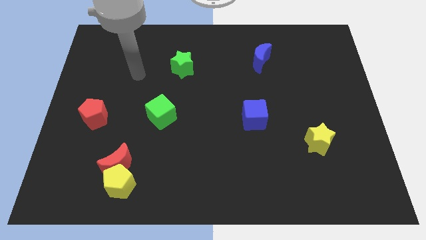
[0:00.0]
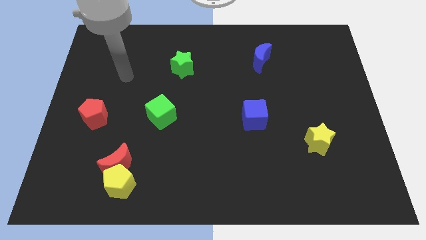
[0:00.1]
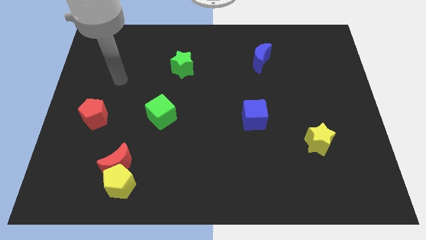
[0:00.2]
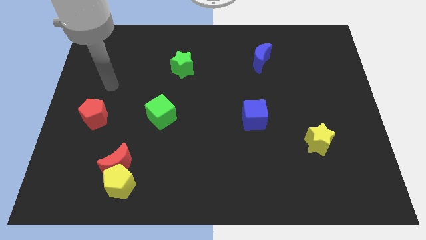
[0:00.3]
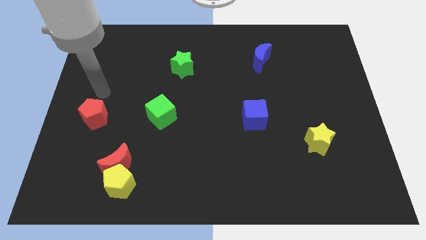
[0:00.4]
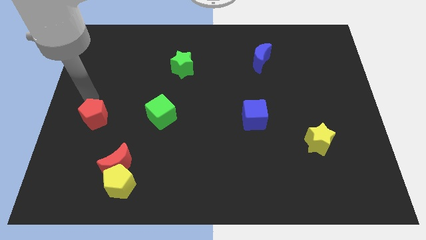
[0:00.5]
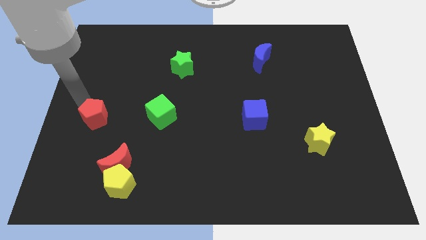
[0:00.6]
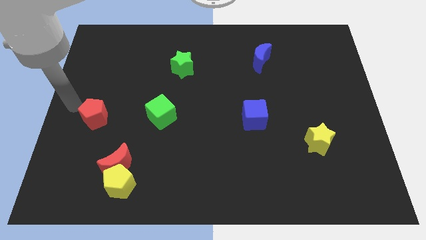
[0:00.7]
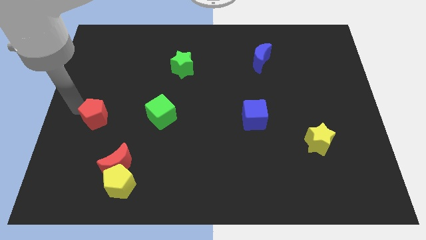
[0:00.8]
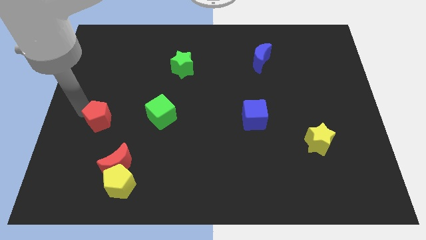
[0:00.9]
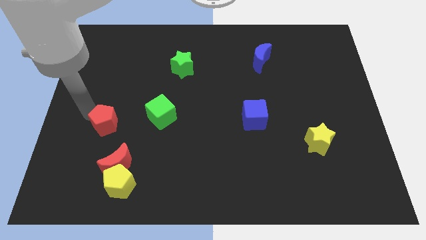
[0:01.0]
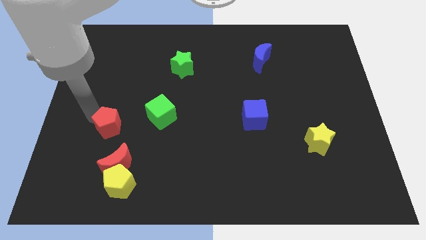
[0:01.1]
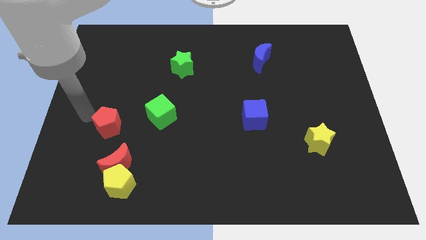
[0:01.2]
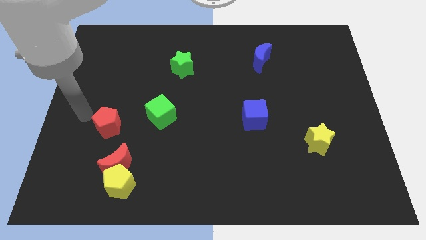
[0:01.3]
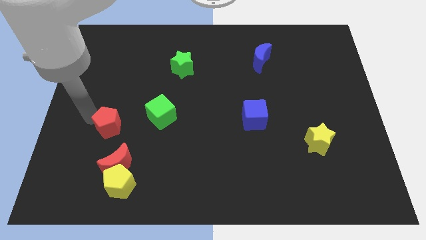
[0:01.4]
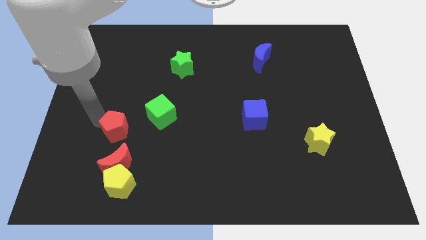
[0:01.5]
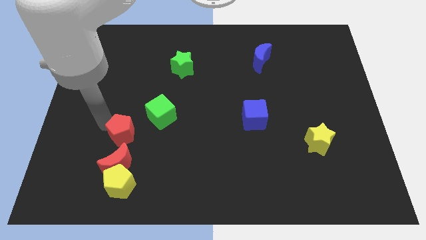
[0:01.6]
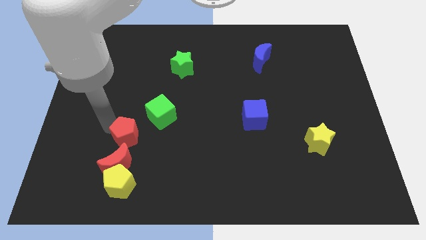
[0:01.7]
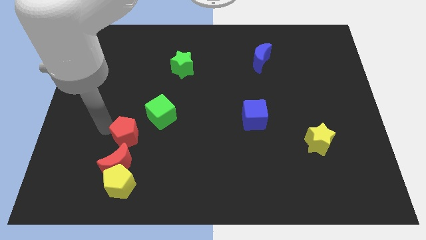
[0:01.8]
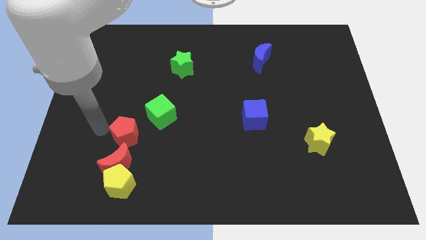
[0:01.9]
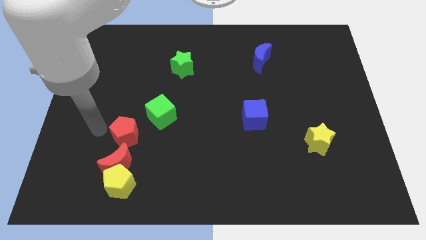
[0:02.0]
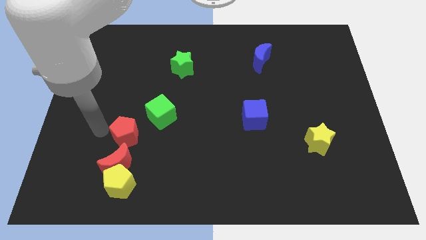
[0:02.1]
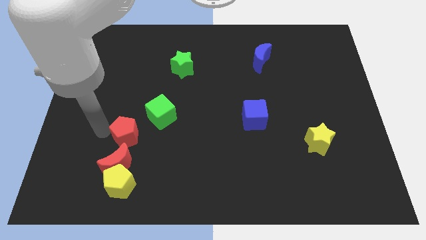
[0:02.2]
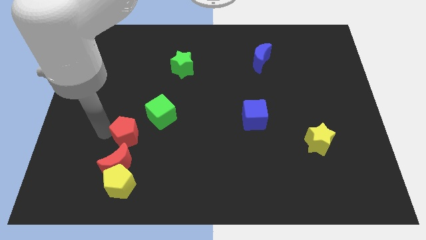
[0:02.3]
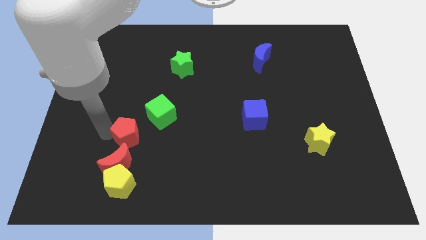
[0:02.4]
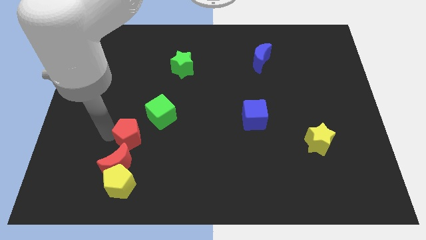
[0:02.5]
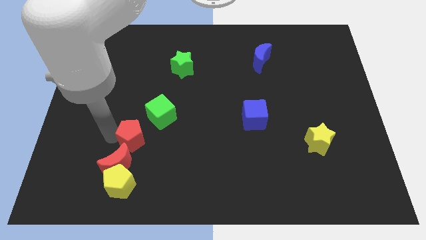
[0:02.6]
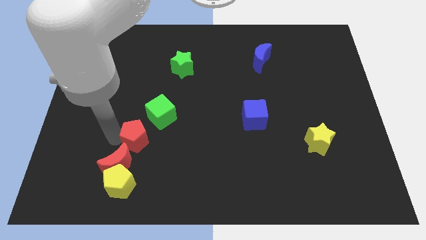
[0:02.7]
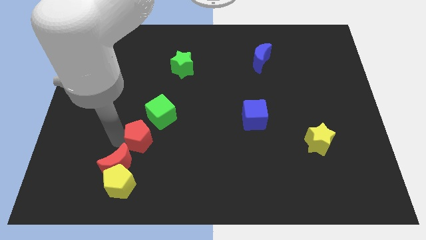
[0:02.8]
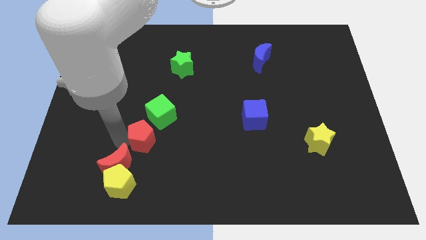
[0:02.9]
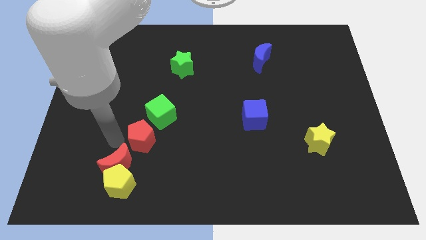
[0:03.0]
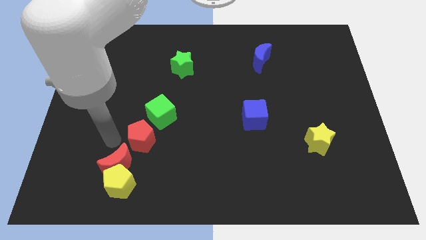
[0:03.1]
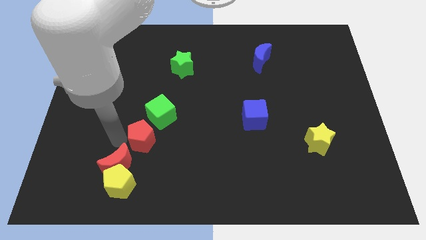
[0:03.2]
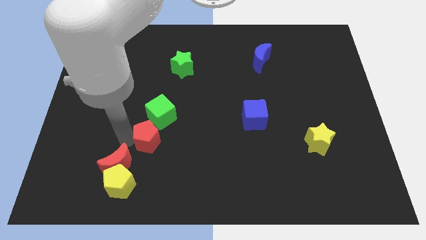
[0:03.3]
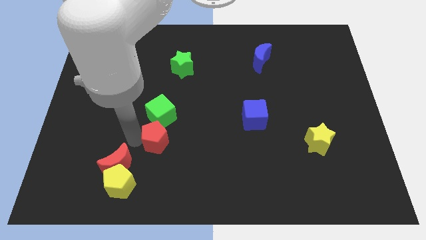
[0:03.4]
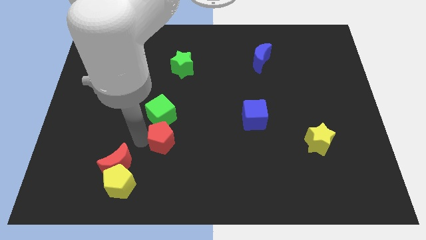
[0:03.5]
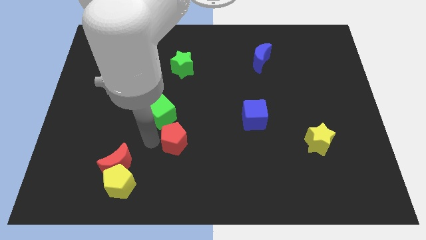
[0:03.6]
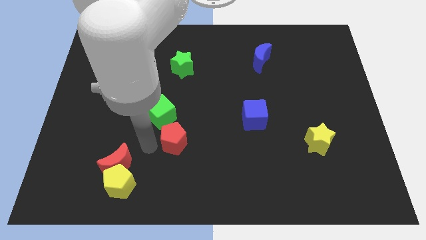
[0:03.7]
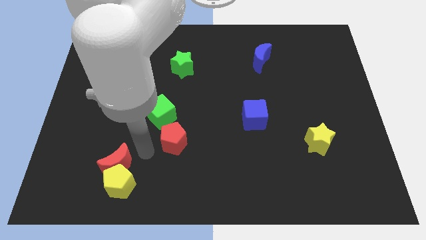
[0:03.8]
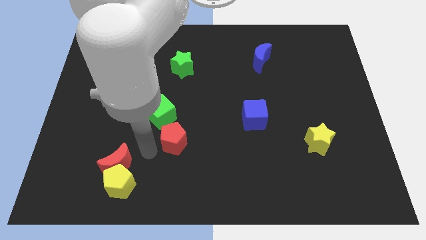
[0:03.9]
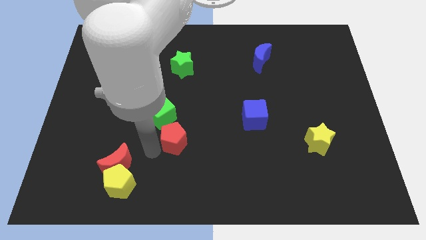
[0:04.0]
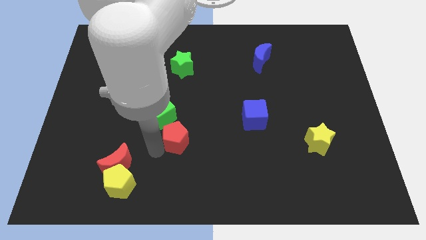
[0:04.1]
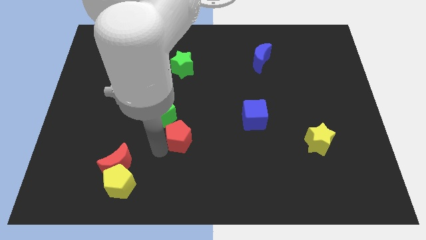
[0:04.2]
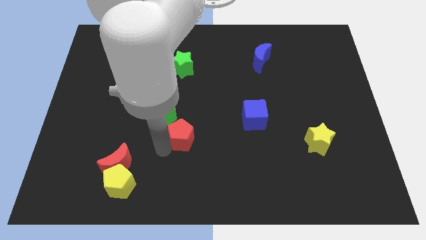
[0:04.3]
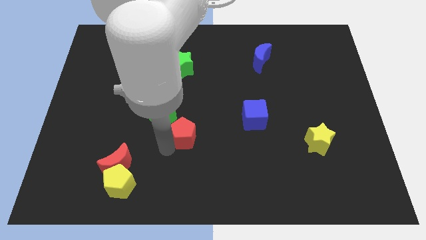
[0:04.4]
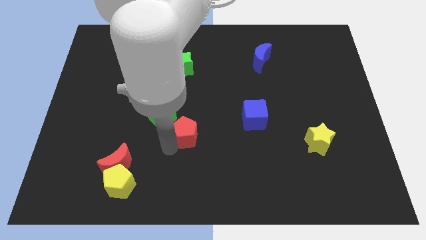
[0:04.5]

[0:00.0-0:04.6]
move the red pentagon to the right

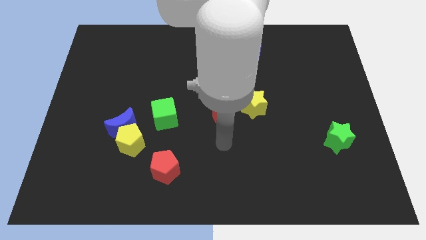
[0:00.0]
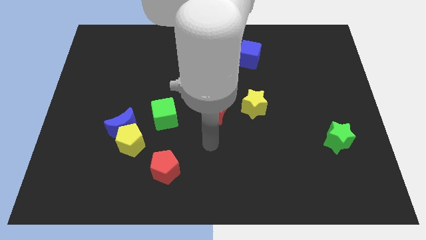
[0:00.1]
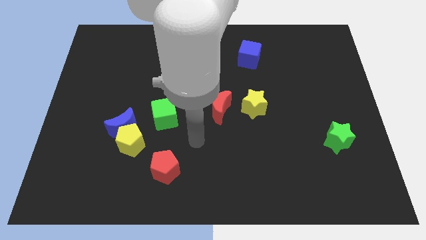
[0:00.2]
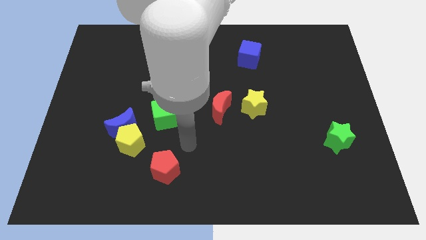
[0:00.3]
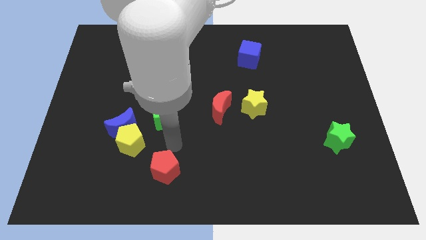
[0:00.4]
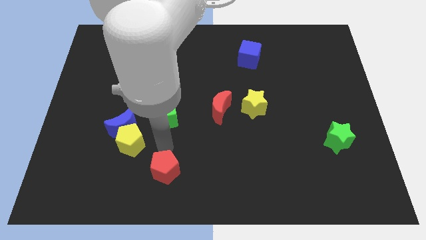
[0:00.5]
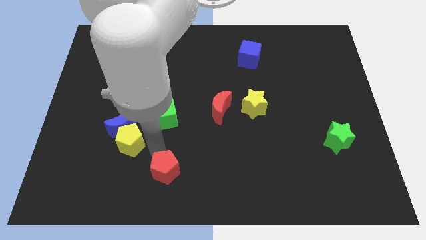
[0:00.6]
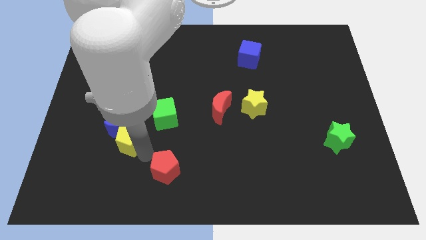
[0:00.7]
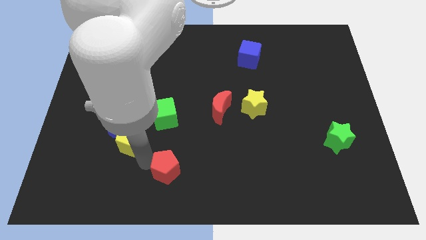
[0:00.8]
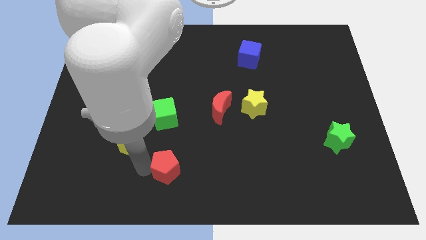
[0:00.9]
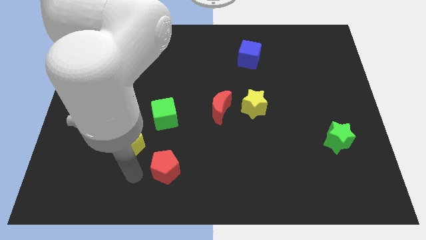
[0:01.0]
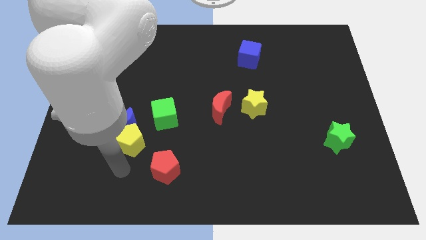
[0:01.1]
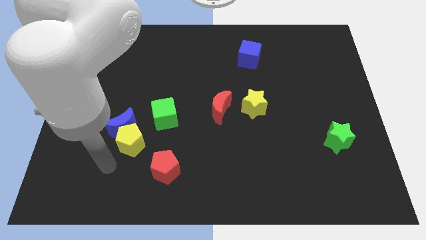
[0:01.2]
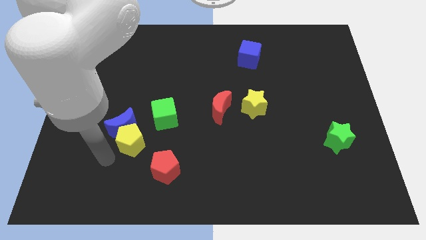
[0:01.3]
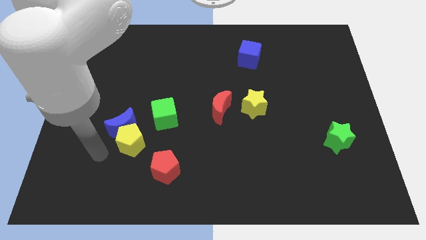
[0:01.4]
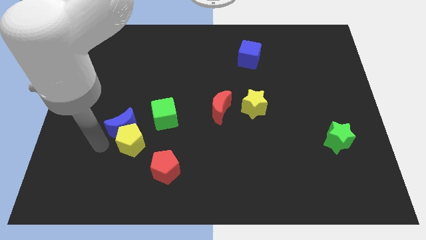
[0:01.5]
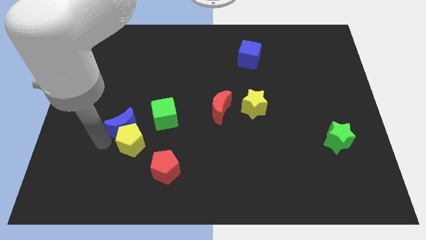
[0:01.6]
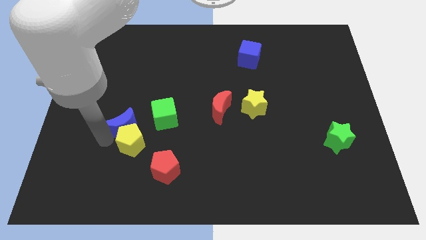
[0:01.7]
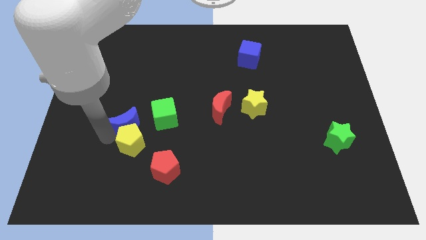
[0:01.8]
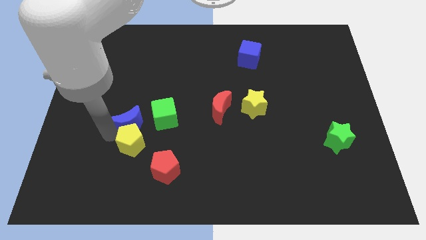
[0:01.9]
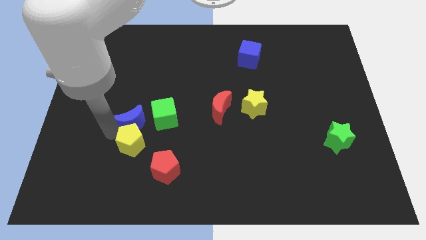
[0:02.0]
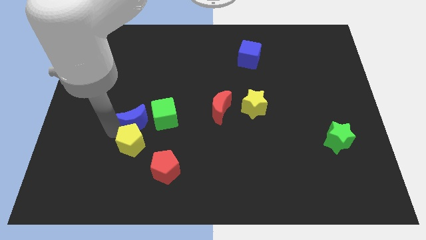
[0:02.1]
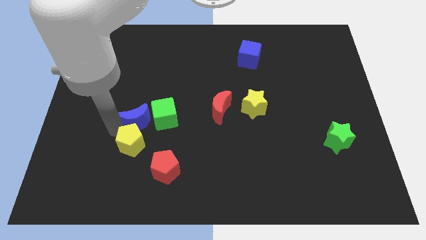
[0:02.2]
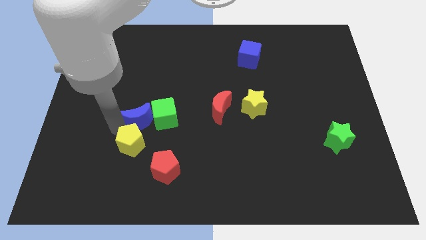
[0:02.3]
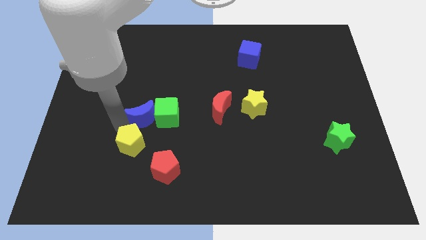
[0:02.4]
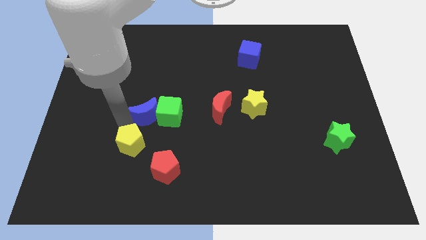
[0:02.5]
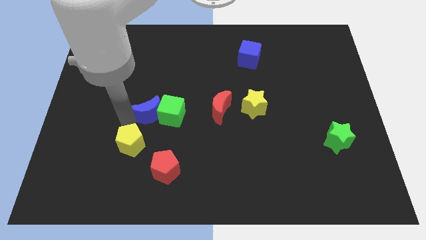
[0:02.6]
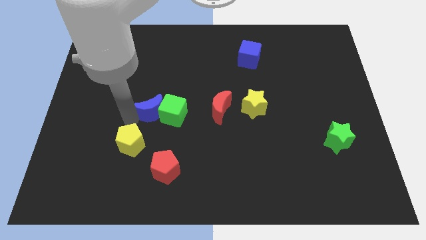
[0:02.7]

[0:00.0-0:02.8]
push the blue moon a little diagonally upwards and right

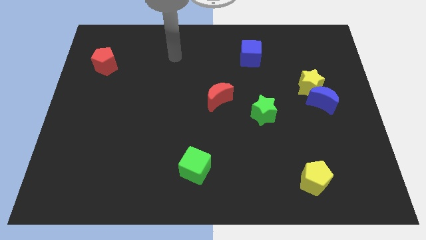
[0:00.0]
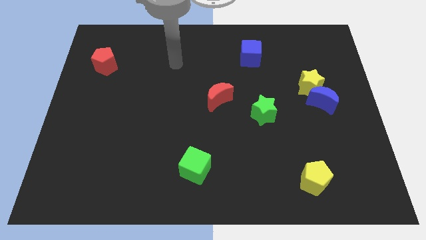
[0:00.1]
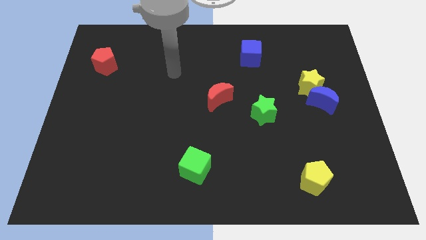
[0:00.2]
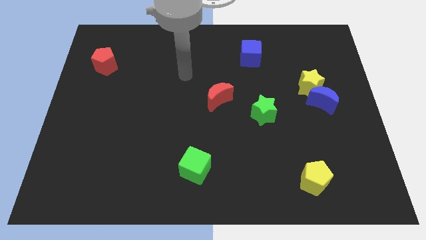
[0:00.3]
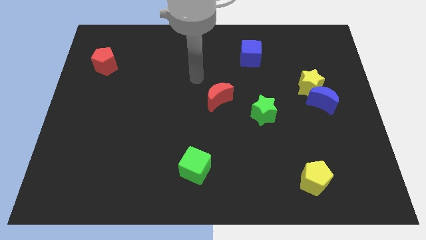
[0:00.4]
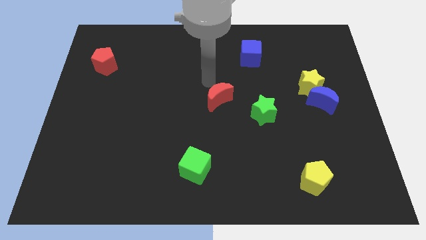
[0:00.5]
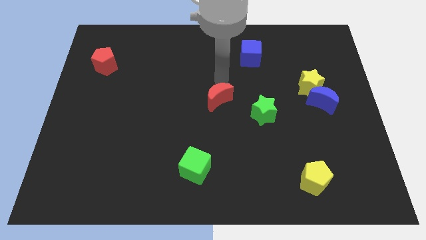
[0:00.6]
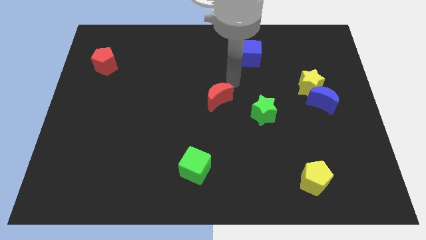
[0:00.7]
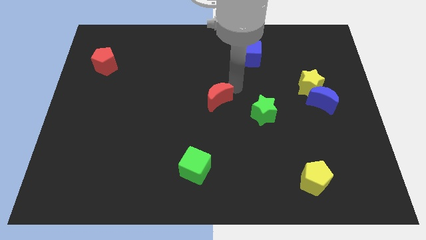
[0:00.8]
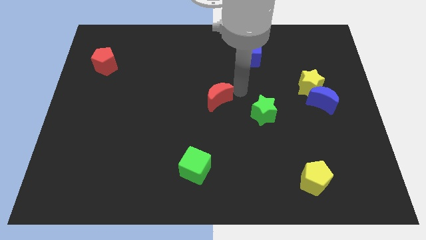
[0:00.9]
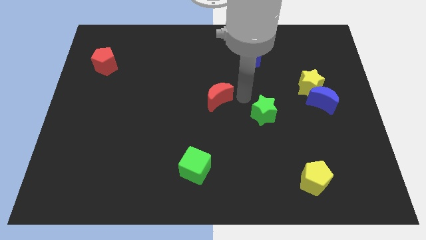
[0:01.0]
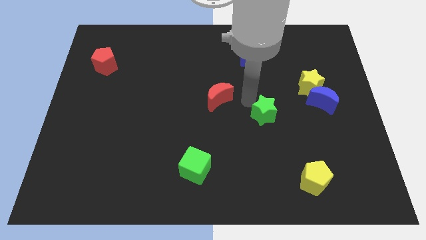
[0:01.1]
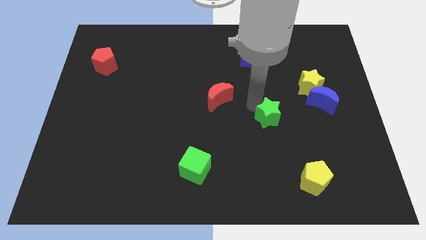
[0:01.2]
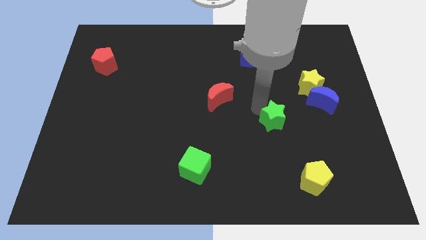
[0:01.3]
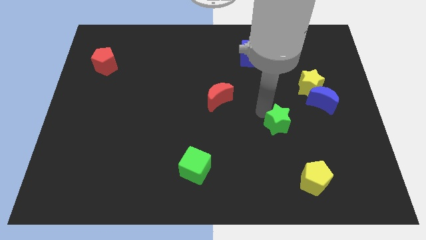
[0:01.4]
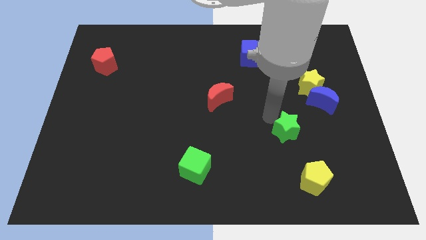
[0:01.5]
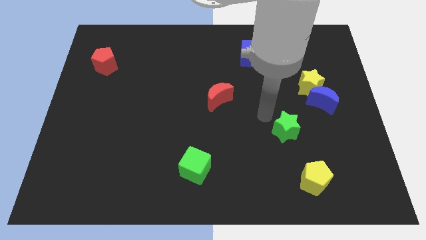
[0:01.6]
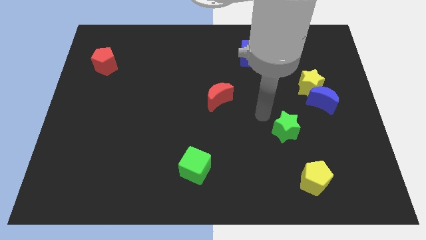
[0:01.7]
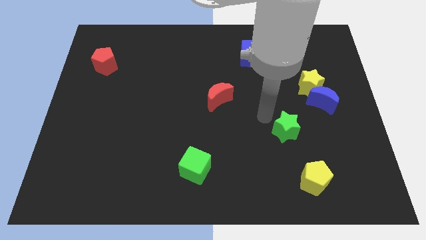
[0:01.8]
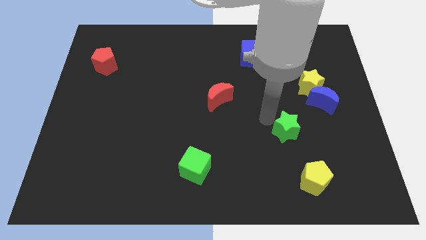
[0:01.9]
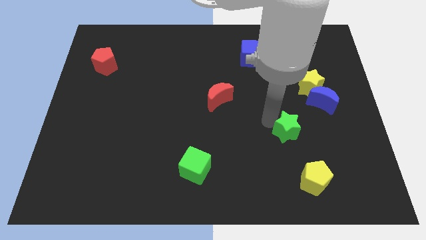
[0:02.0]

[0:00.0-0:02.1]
slightly slide the green star downwards and right
